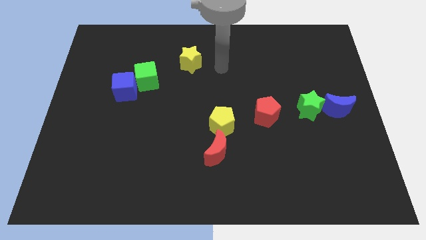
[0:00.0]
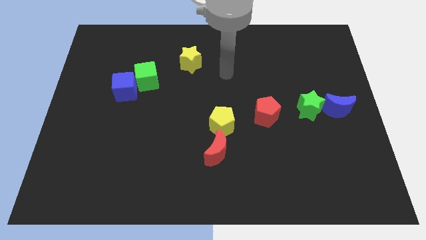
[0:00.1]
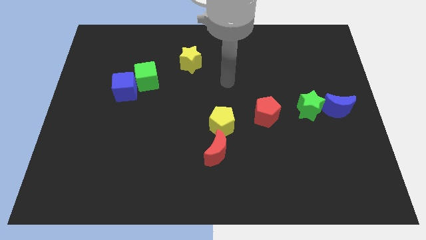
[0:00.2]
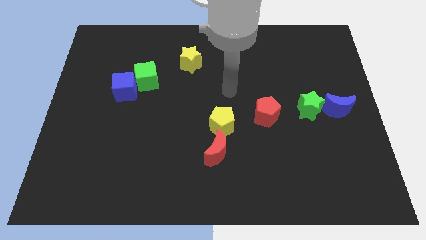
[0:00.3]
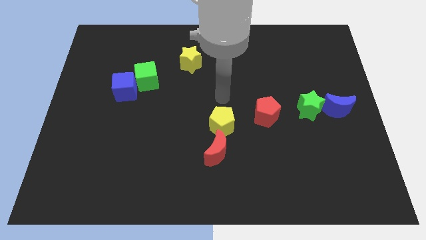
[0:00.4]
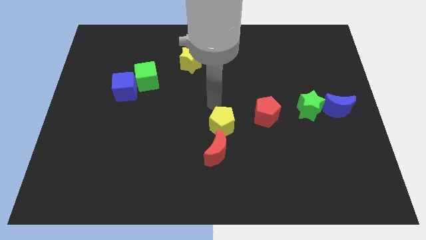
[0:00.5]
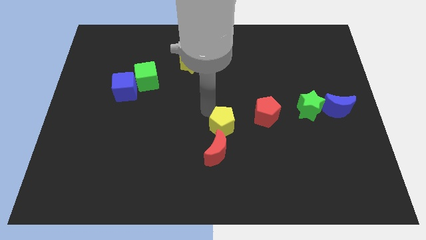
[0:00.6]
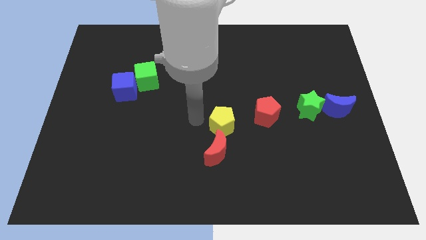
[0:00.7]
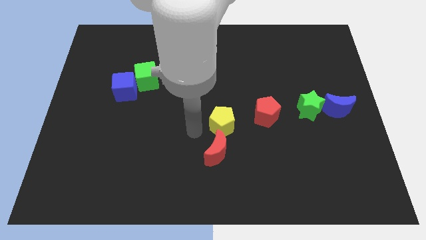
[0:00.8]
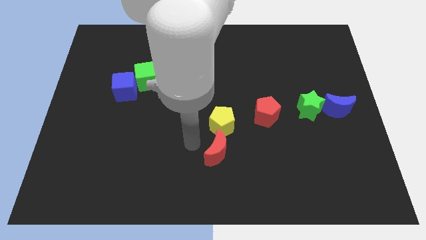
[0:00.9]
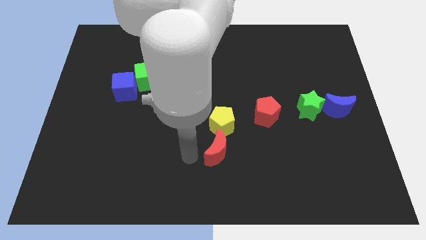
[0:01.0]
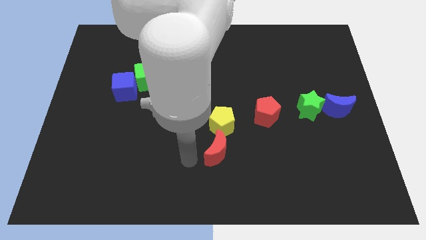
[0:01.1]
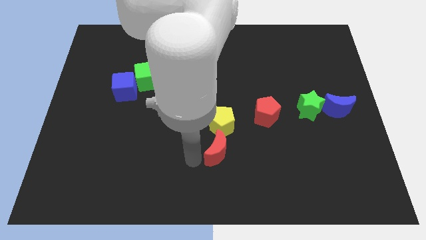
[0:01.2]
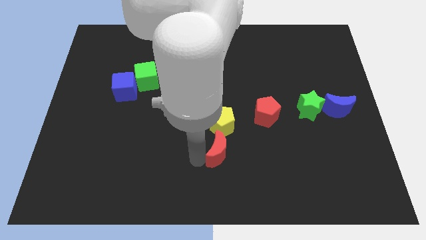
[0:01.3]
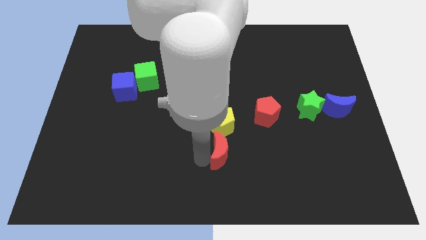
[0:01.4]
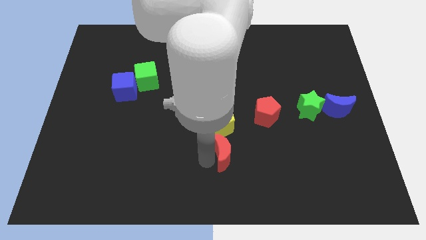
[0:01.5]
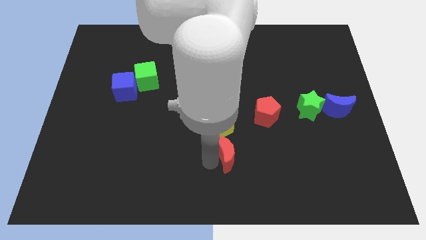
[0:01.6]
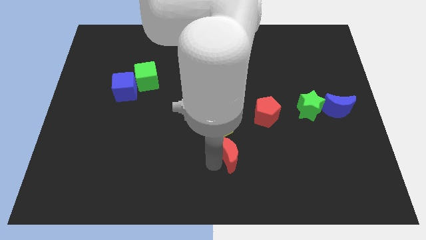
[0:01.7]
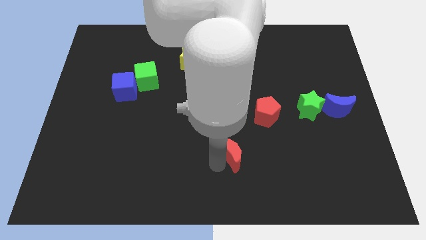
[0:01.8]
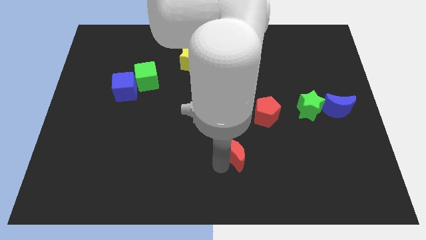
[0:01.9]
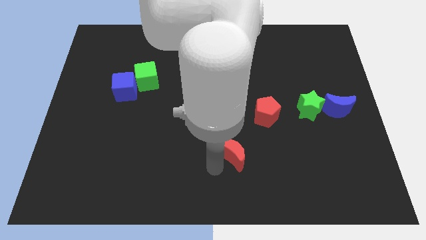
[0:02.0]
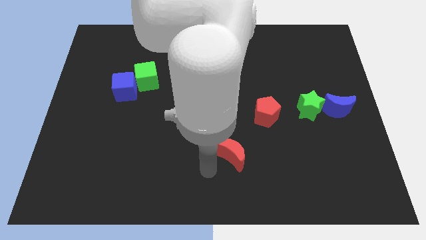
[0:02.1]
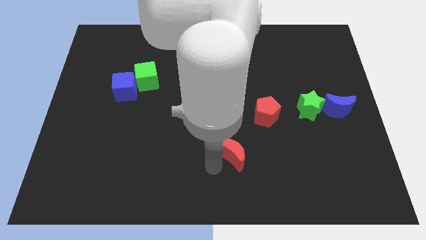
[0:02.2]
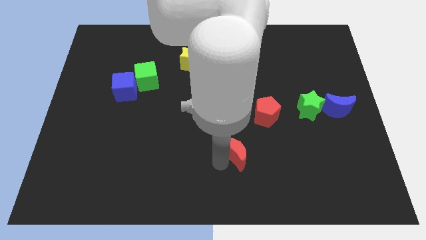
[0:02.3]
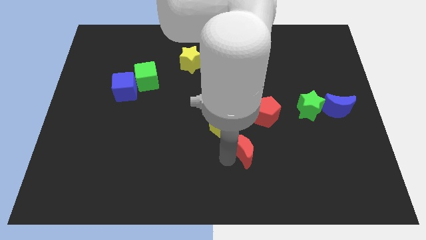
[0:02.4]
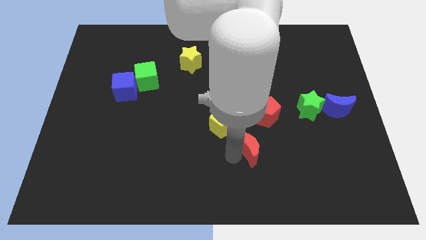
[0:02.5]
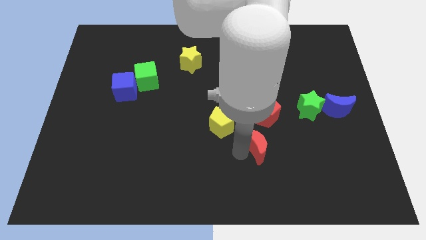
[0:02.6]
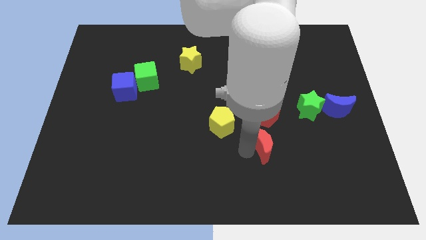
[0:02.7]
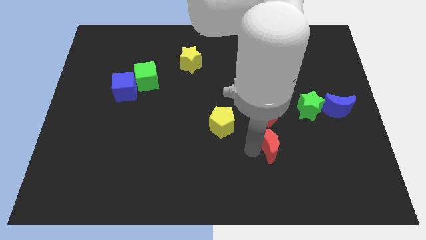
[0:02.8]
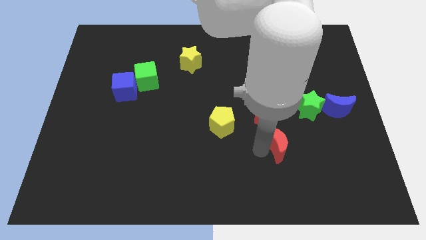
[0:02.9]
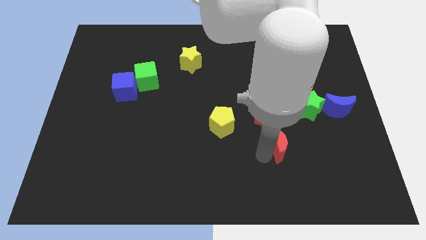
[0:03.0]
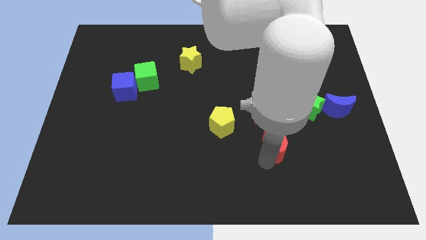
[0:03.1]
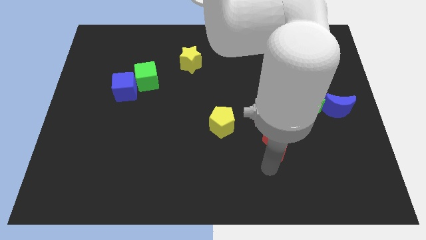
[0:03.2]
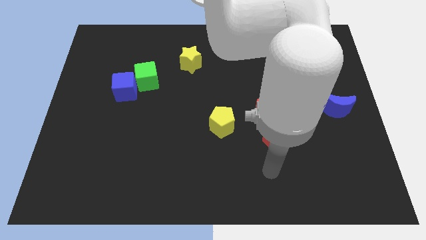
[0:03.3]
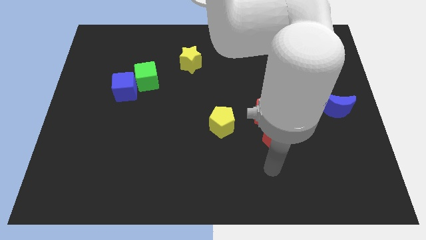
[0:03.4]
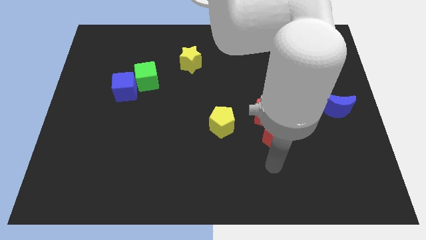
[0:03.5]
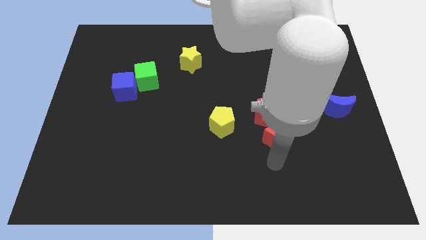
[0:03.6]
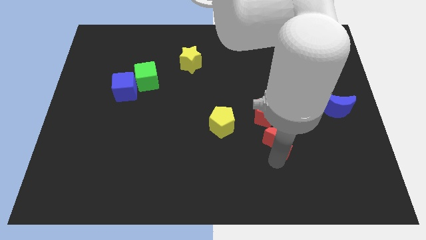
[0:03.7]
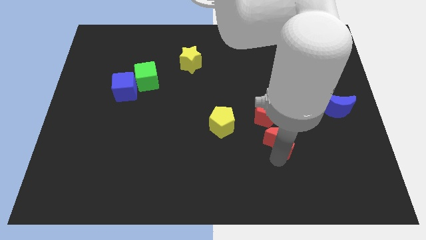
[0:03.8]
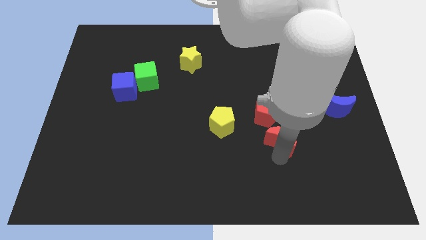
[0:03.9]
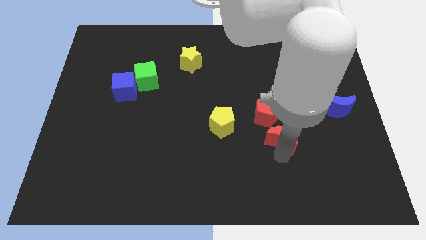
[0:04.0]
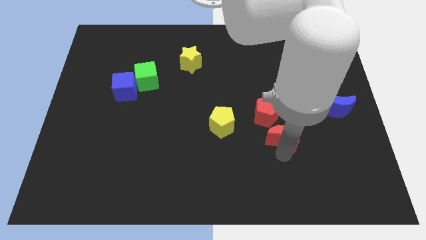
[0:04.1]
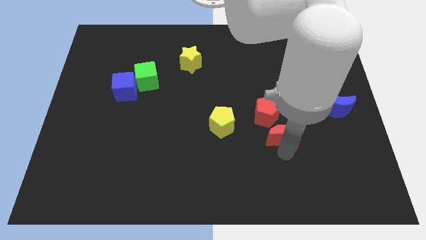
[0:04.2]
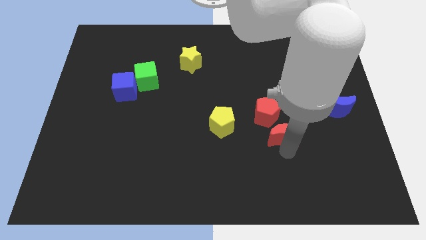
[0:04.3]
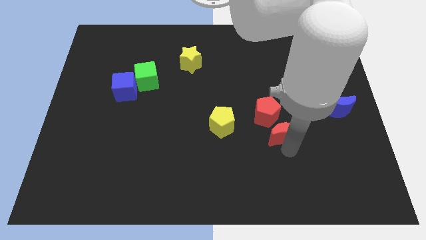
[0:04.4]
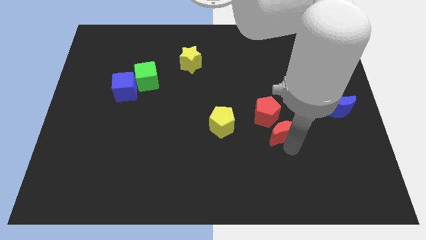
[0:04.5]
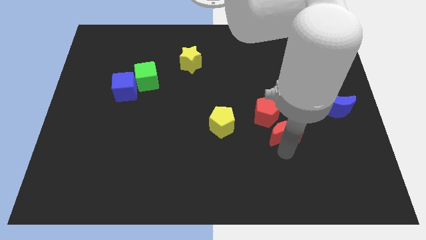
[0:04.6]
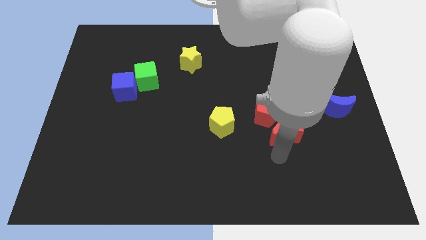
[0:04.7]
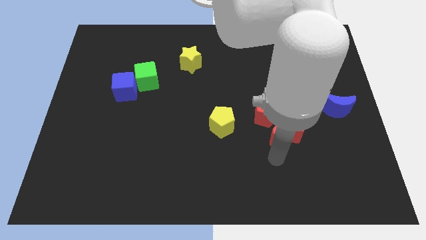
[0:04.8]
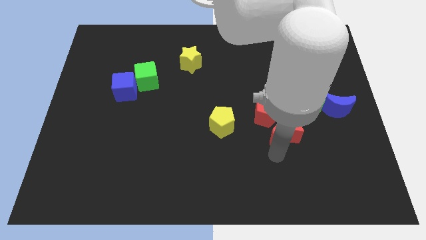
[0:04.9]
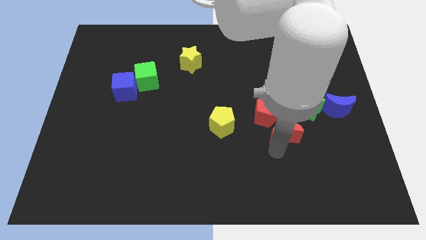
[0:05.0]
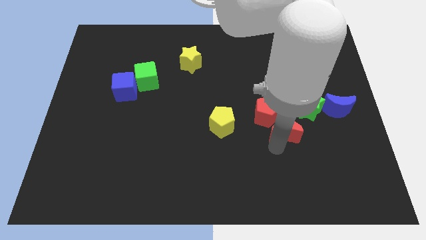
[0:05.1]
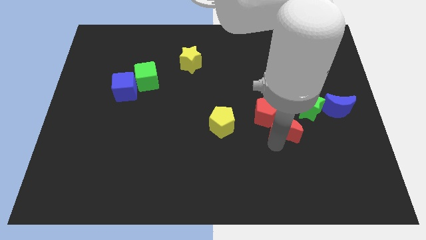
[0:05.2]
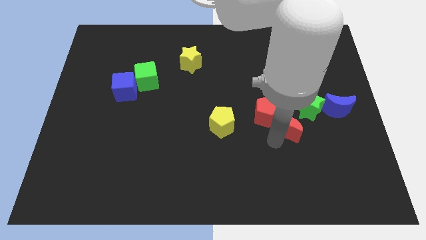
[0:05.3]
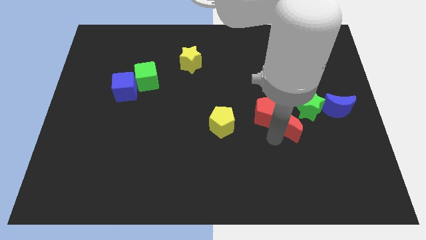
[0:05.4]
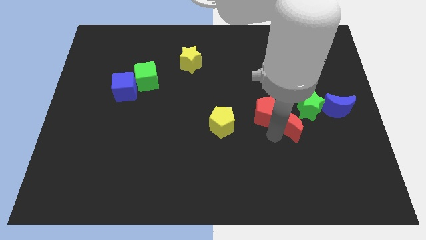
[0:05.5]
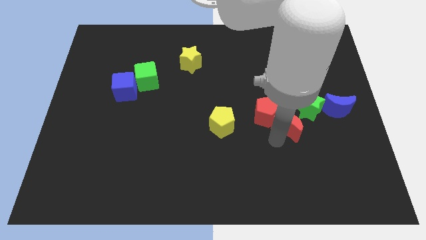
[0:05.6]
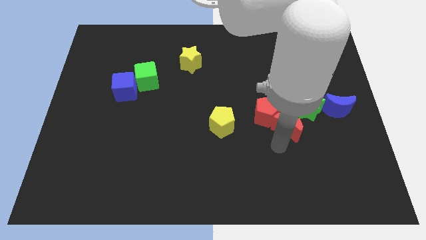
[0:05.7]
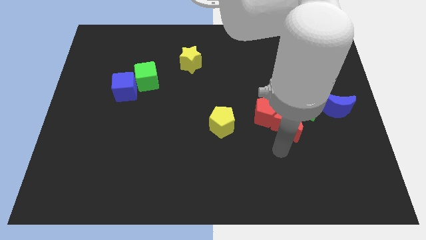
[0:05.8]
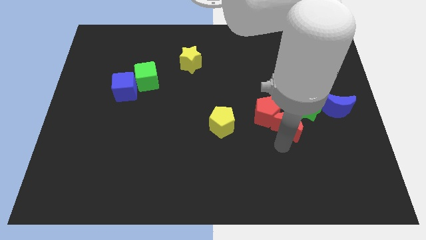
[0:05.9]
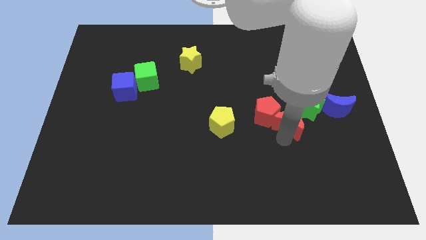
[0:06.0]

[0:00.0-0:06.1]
slide the red moon just left of the blue moon
